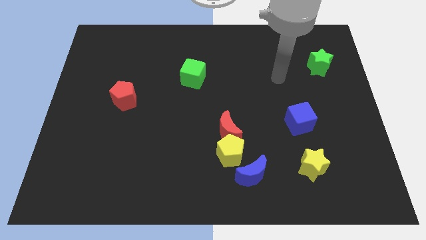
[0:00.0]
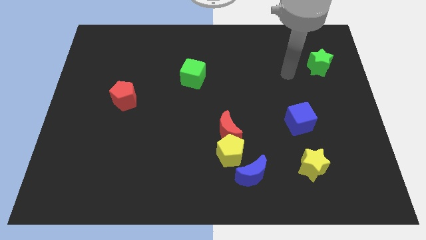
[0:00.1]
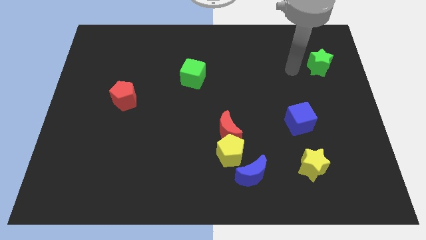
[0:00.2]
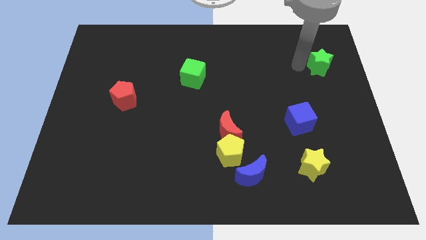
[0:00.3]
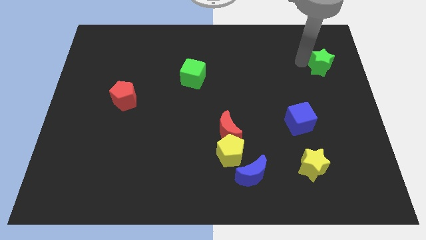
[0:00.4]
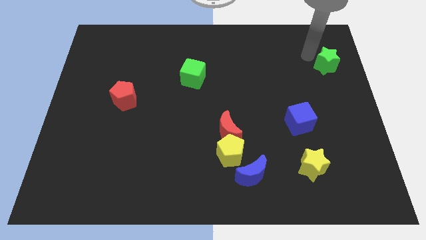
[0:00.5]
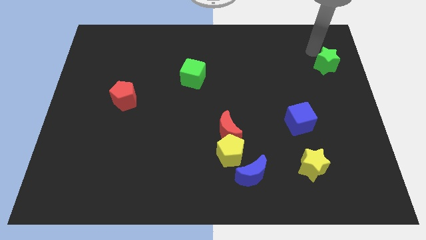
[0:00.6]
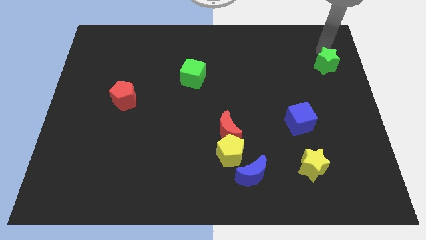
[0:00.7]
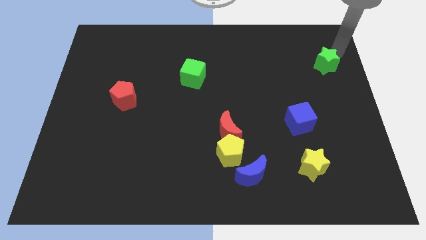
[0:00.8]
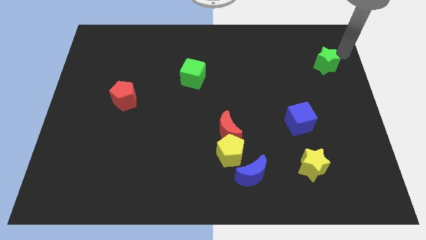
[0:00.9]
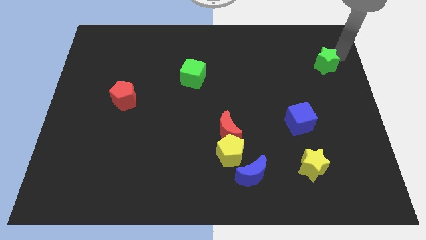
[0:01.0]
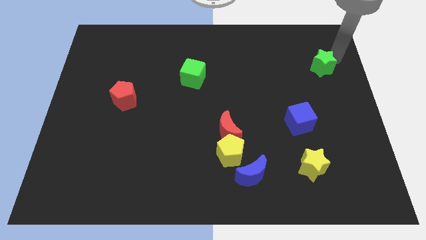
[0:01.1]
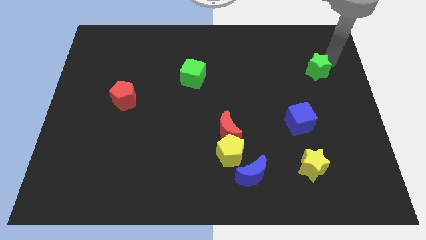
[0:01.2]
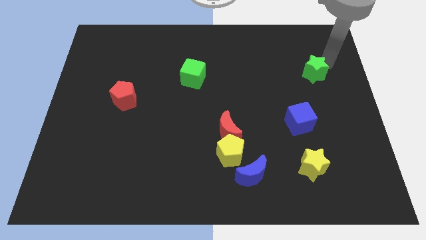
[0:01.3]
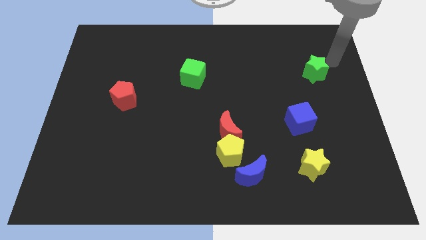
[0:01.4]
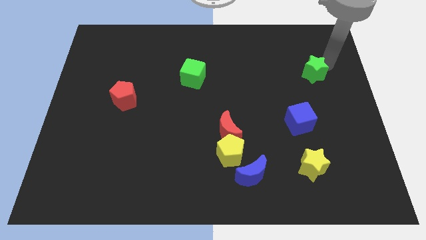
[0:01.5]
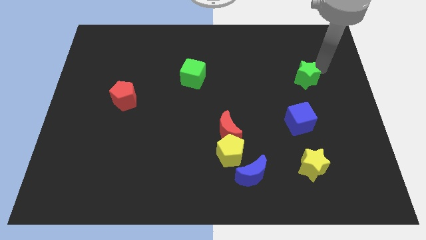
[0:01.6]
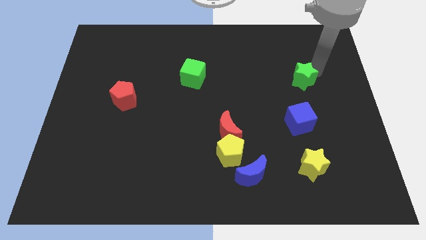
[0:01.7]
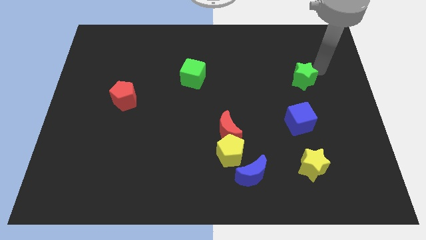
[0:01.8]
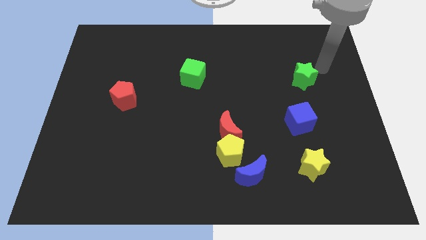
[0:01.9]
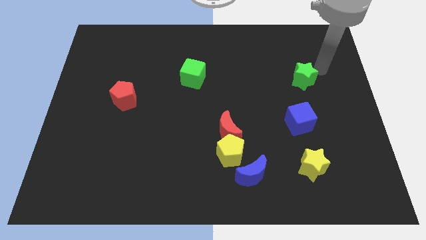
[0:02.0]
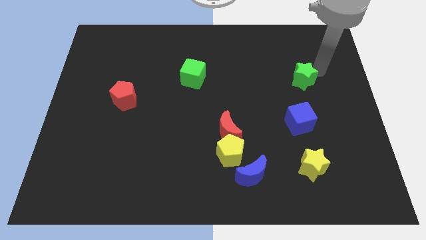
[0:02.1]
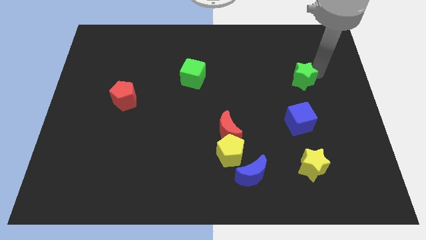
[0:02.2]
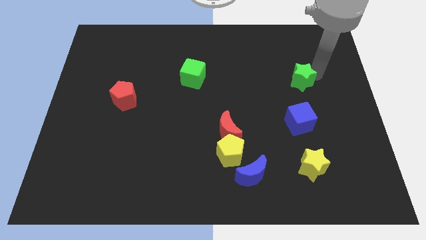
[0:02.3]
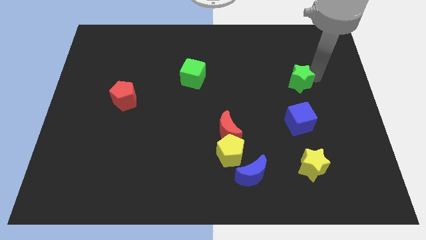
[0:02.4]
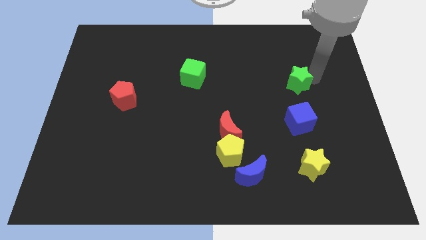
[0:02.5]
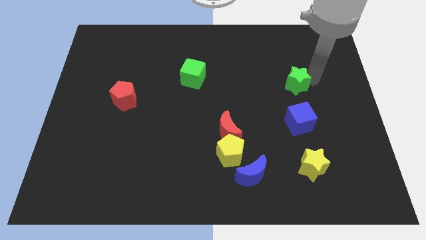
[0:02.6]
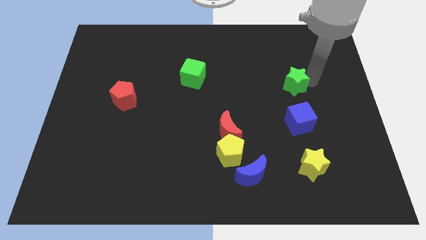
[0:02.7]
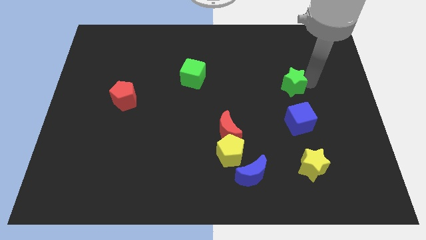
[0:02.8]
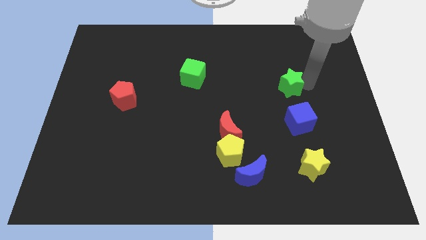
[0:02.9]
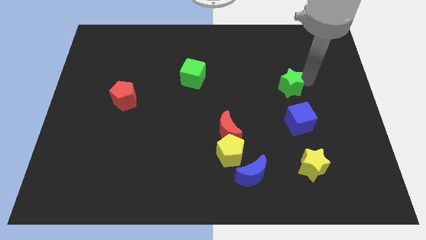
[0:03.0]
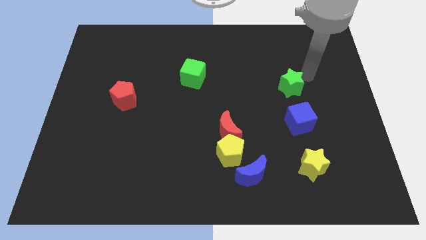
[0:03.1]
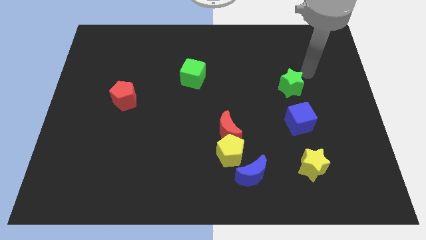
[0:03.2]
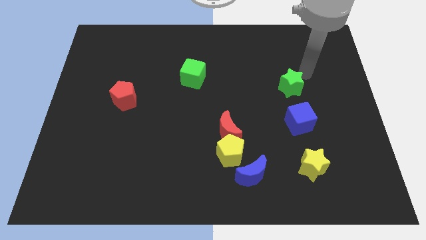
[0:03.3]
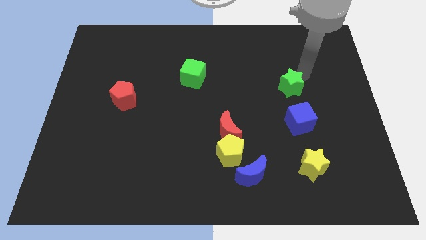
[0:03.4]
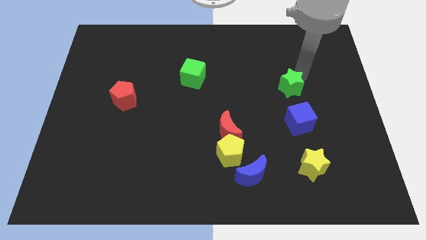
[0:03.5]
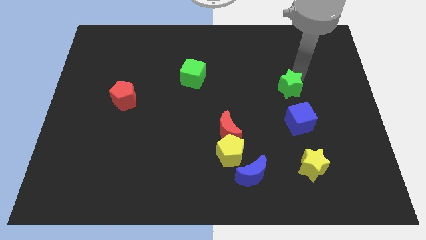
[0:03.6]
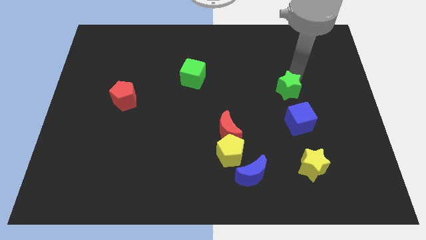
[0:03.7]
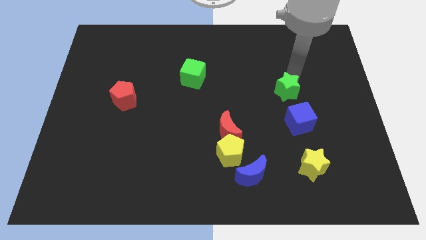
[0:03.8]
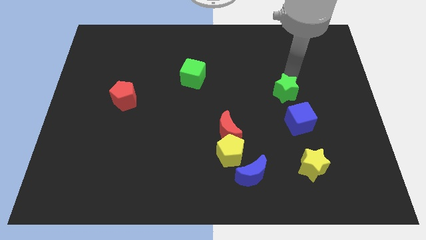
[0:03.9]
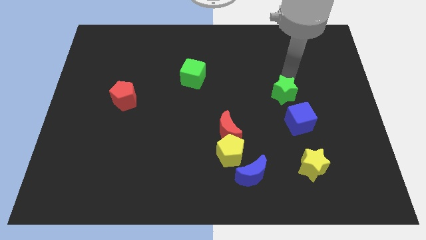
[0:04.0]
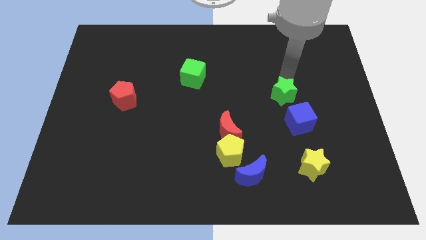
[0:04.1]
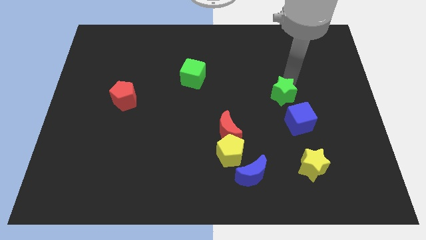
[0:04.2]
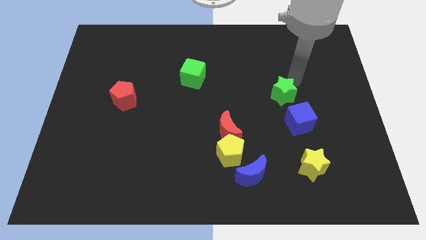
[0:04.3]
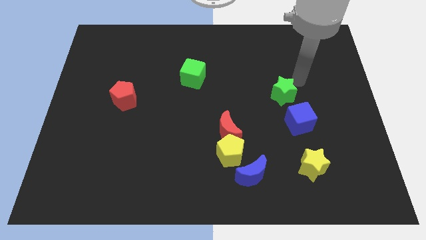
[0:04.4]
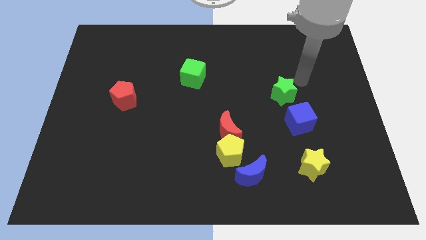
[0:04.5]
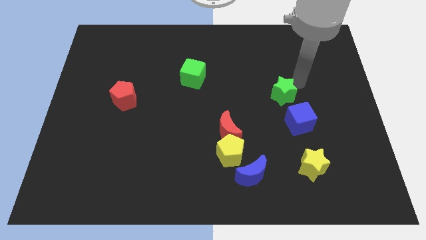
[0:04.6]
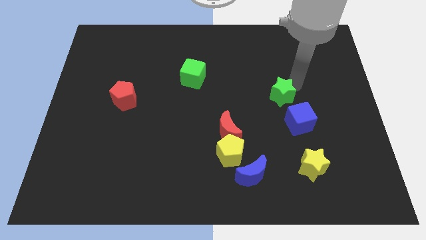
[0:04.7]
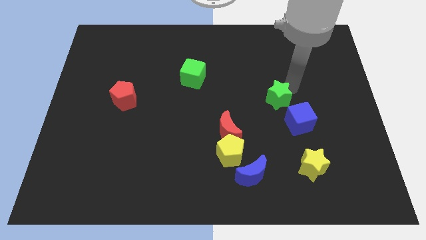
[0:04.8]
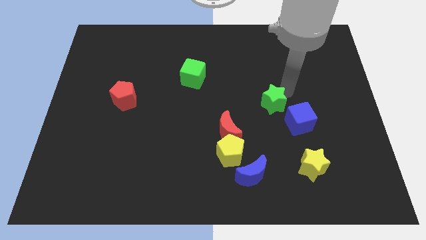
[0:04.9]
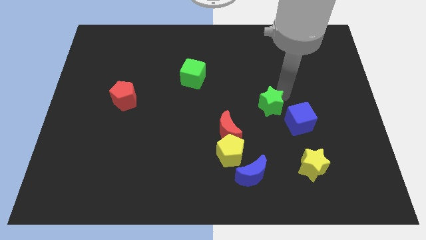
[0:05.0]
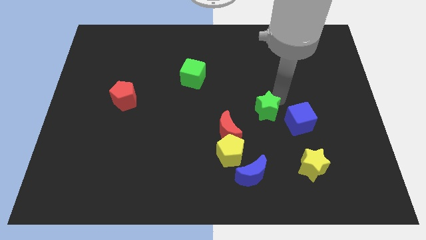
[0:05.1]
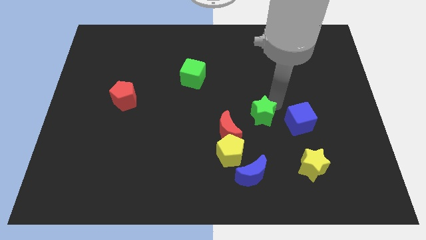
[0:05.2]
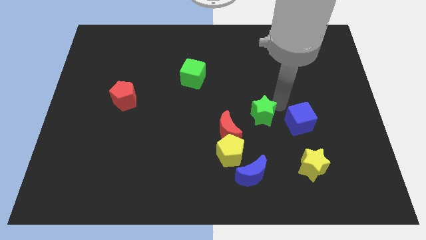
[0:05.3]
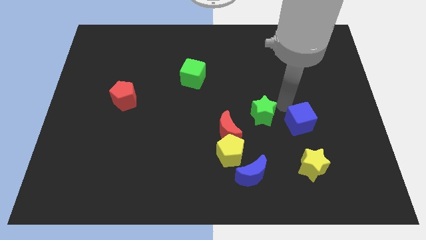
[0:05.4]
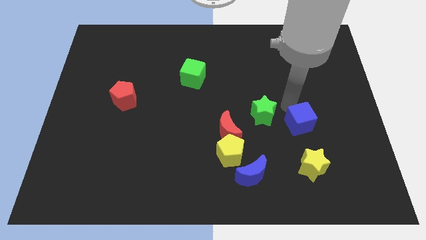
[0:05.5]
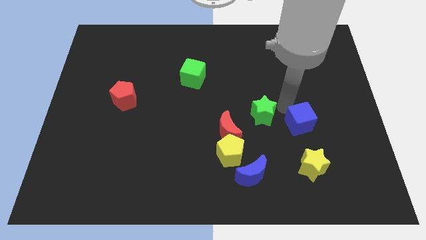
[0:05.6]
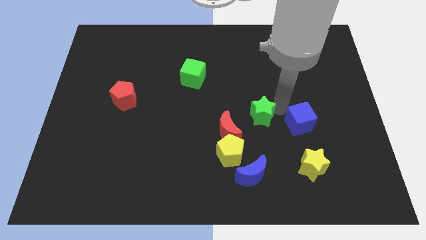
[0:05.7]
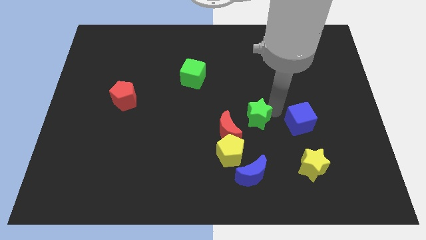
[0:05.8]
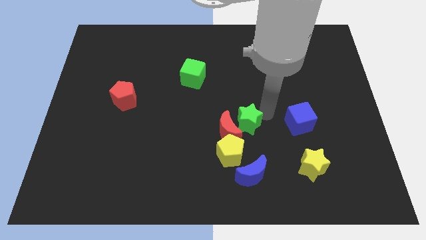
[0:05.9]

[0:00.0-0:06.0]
push the green star close to the red moon

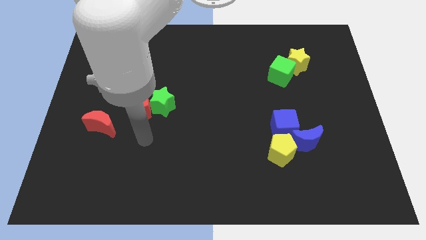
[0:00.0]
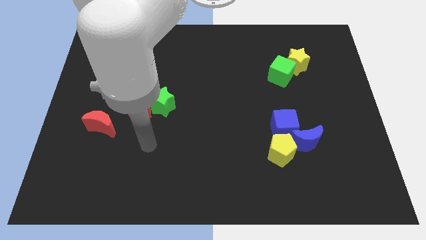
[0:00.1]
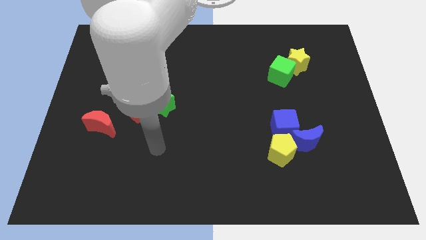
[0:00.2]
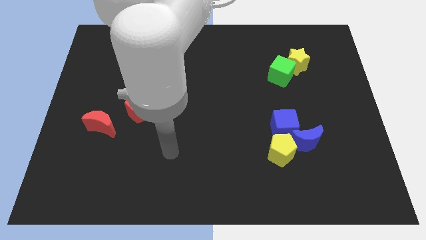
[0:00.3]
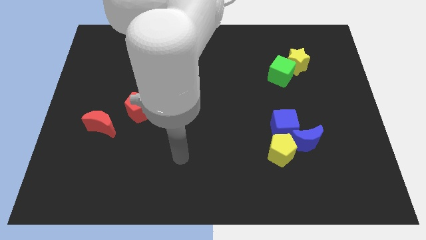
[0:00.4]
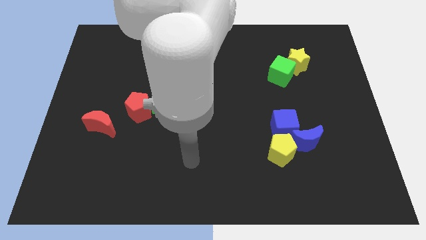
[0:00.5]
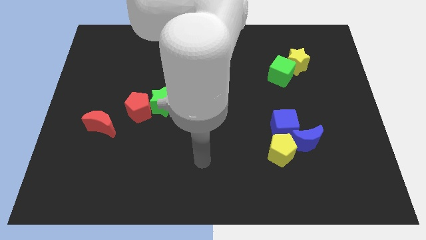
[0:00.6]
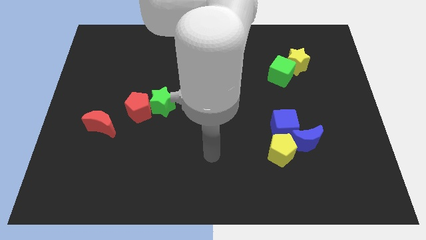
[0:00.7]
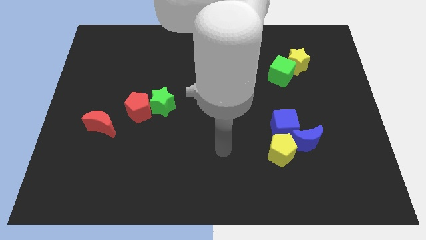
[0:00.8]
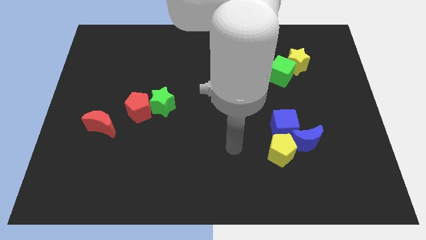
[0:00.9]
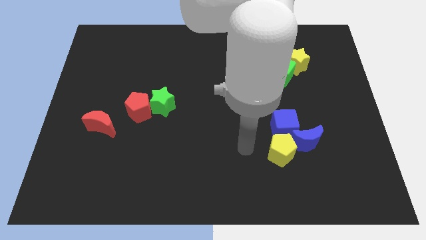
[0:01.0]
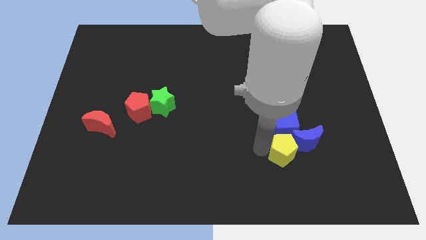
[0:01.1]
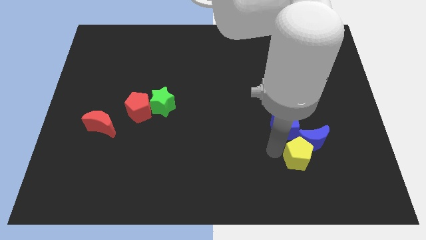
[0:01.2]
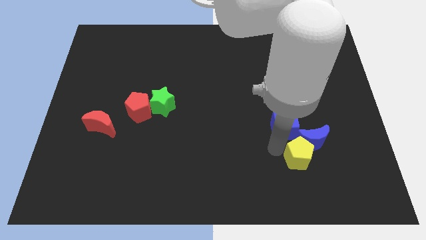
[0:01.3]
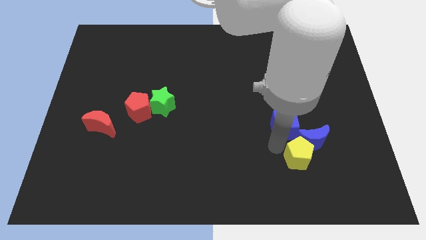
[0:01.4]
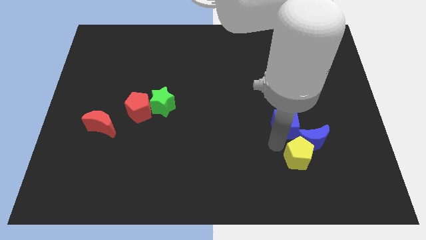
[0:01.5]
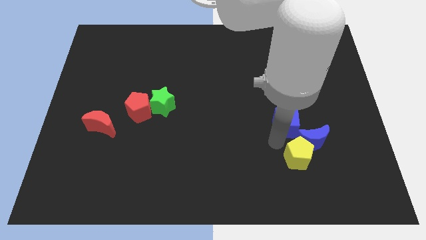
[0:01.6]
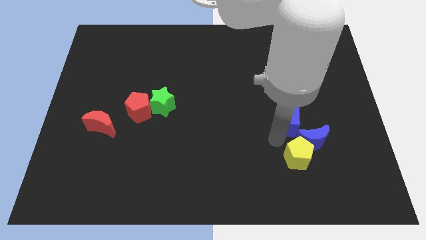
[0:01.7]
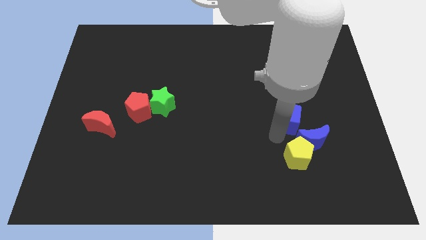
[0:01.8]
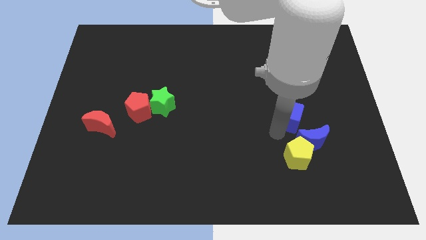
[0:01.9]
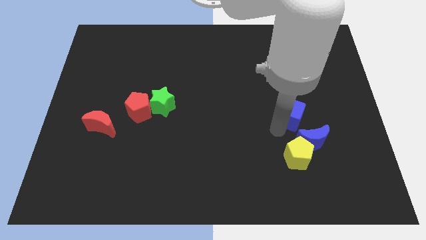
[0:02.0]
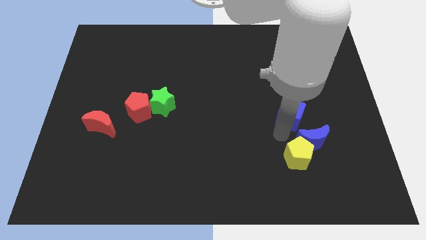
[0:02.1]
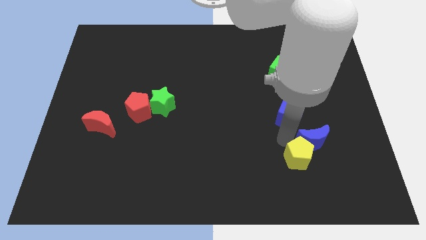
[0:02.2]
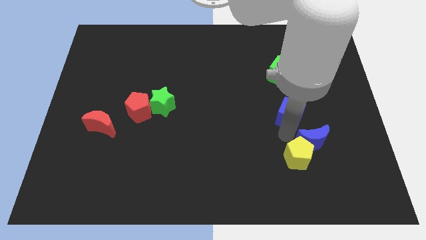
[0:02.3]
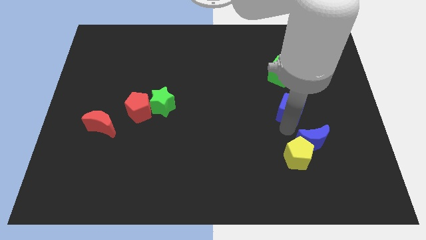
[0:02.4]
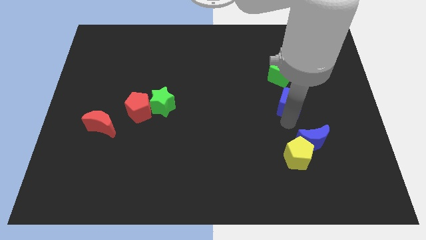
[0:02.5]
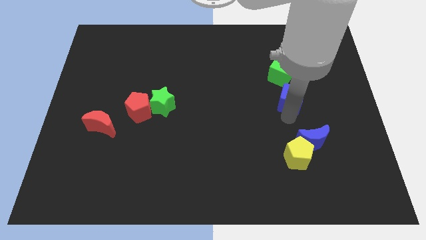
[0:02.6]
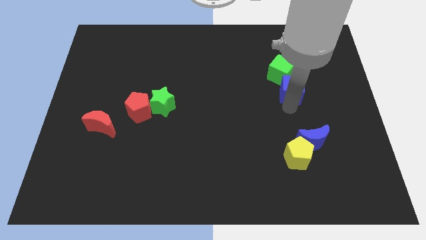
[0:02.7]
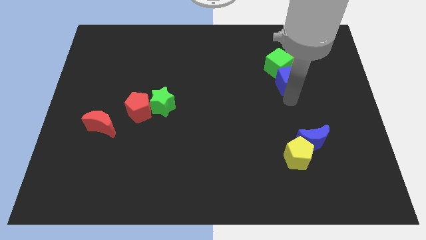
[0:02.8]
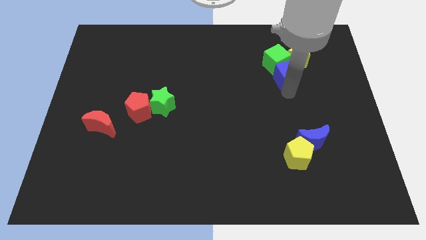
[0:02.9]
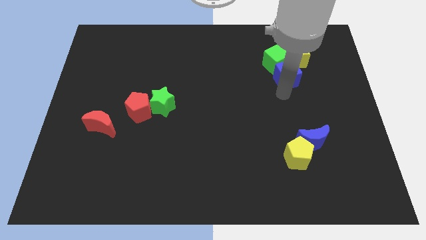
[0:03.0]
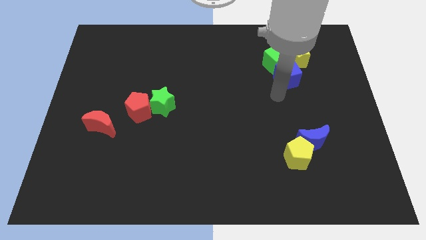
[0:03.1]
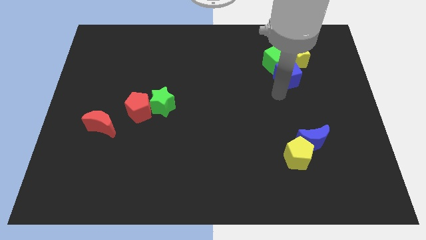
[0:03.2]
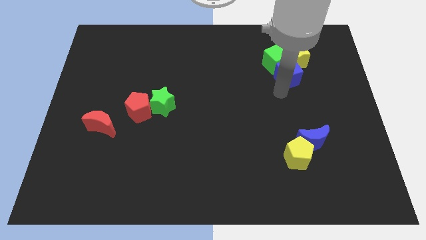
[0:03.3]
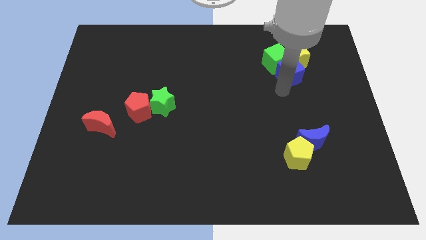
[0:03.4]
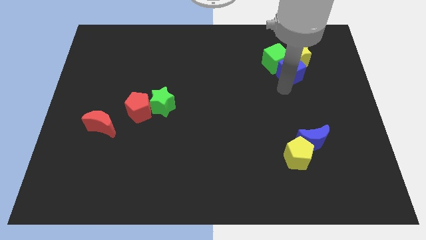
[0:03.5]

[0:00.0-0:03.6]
move the blue cube to the yellow star
